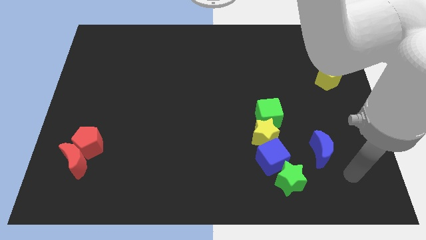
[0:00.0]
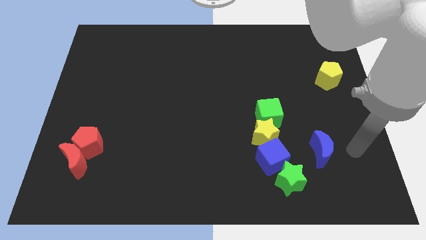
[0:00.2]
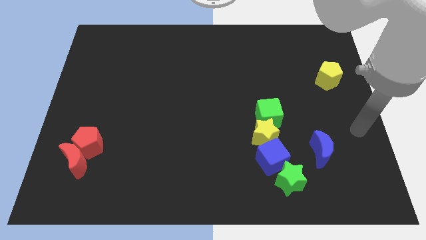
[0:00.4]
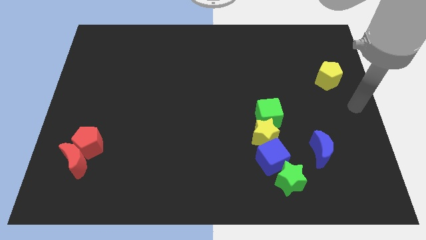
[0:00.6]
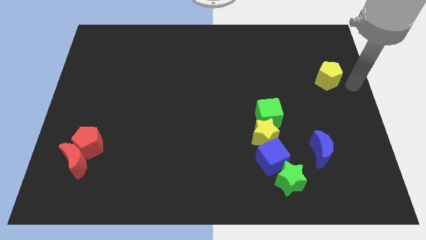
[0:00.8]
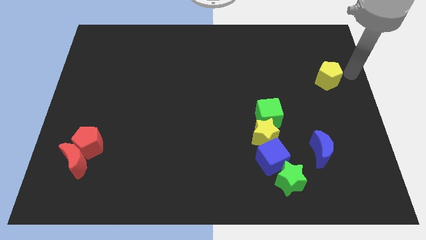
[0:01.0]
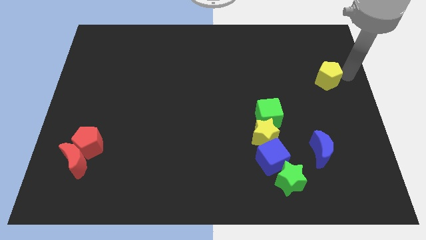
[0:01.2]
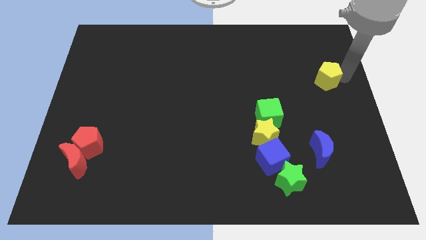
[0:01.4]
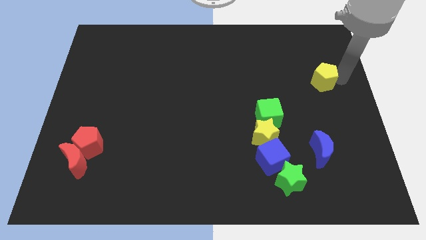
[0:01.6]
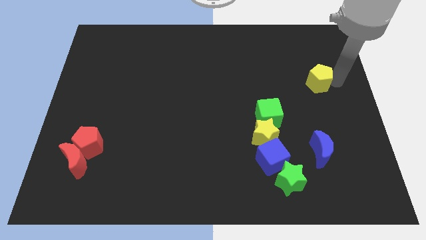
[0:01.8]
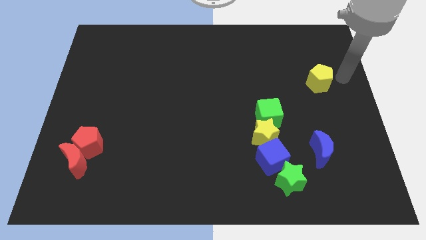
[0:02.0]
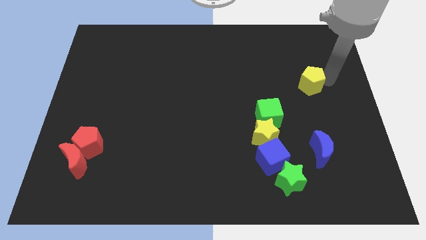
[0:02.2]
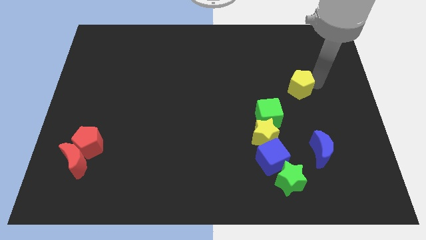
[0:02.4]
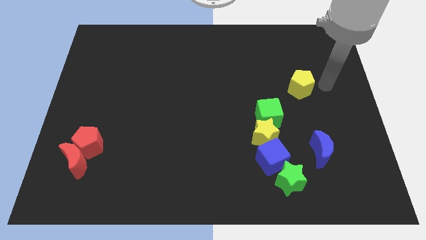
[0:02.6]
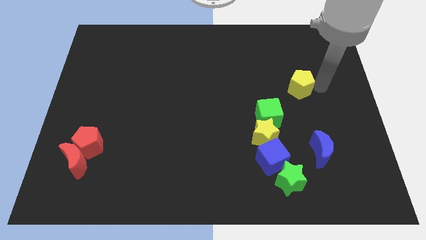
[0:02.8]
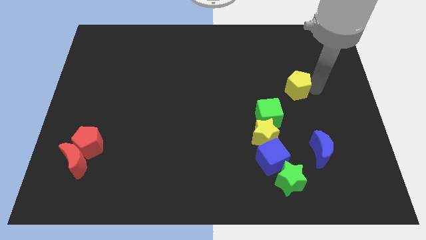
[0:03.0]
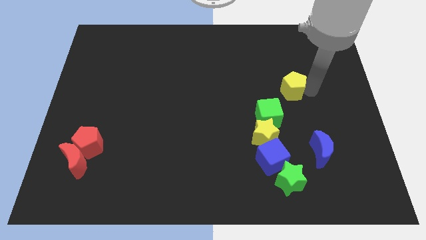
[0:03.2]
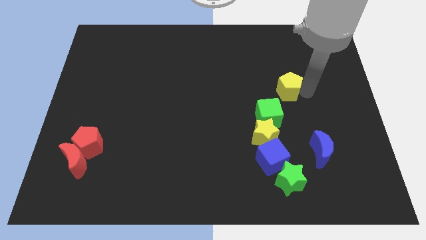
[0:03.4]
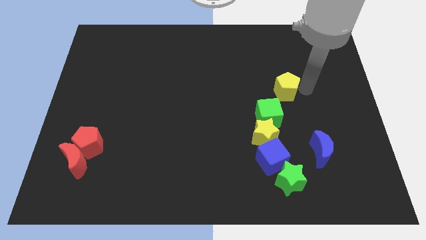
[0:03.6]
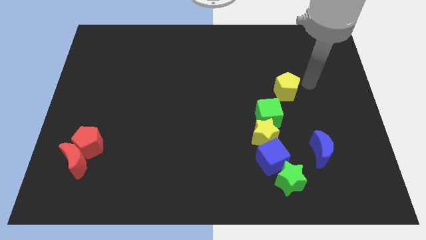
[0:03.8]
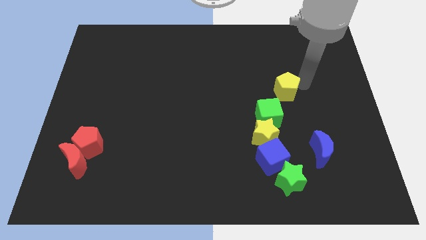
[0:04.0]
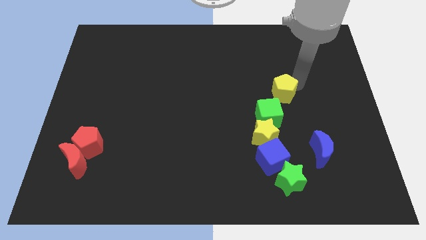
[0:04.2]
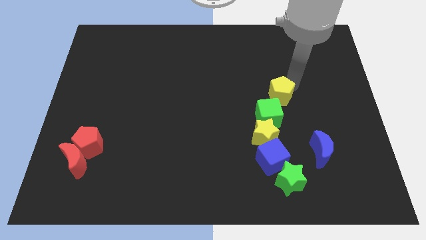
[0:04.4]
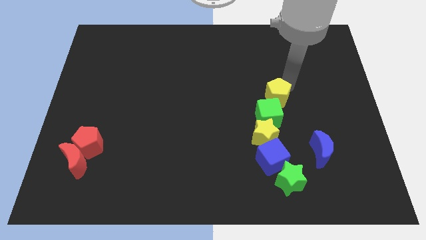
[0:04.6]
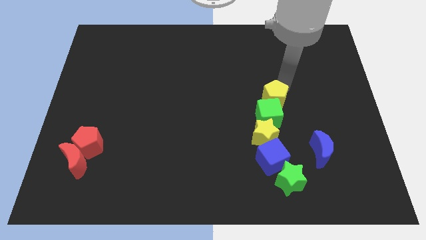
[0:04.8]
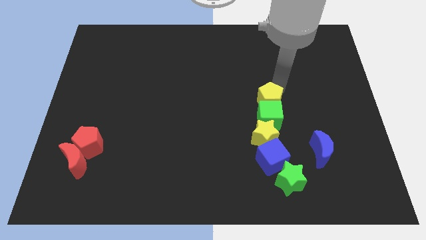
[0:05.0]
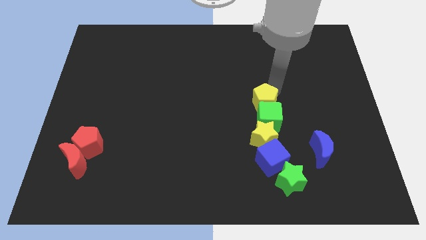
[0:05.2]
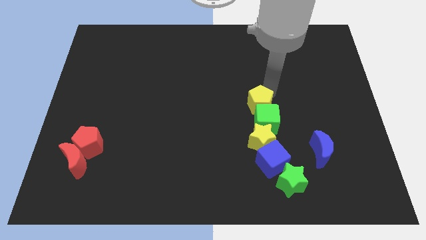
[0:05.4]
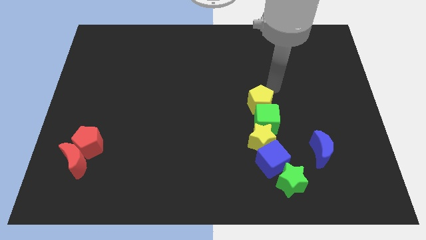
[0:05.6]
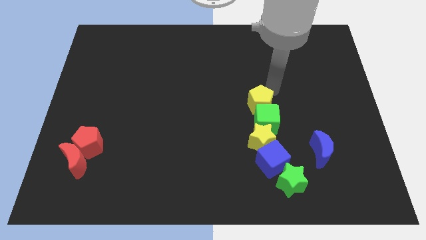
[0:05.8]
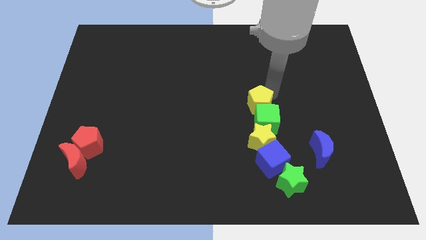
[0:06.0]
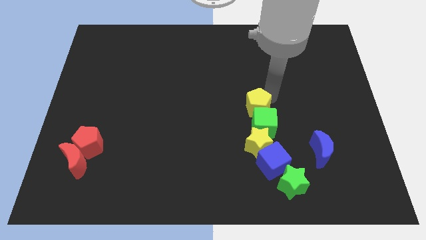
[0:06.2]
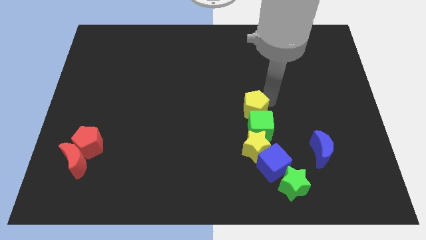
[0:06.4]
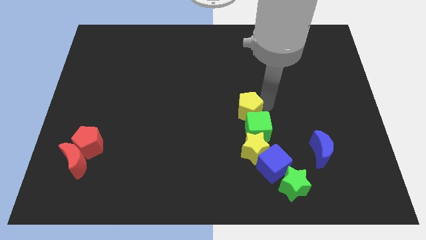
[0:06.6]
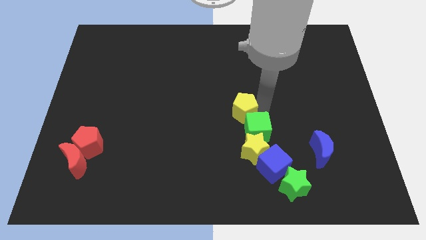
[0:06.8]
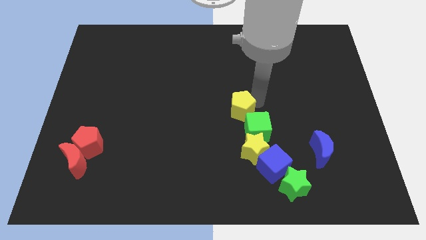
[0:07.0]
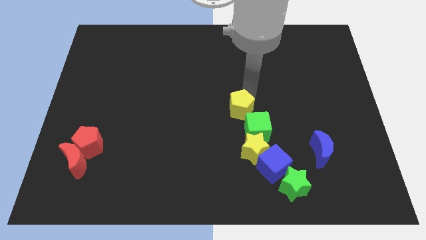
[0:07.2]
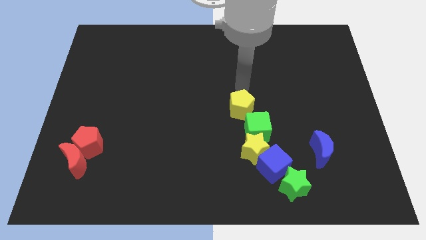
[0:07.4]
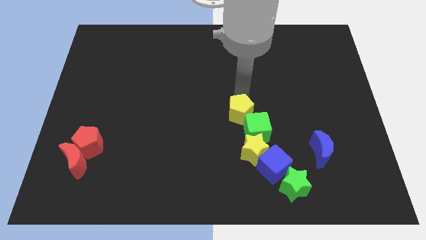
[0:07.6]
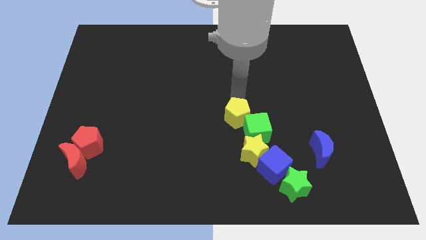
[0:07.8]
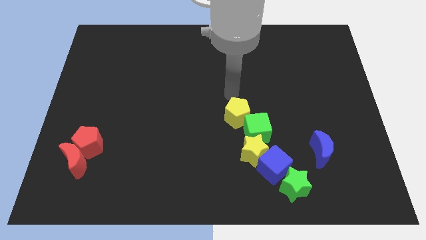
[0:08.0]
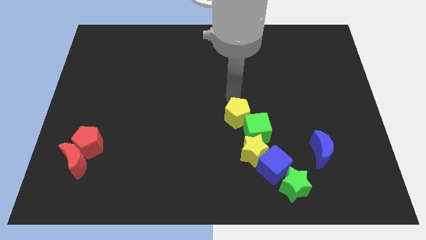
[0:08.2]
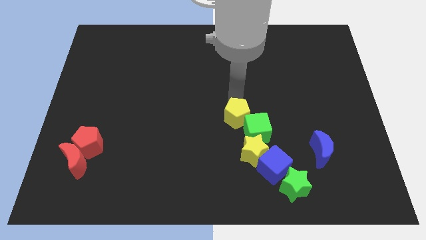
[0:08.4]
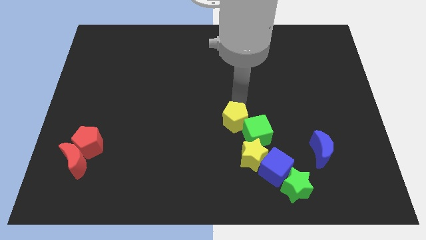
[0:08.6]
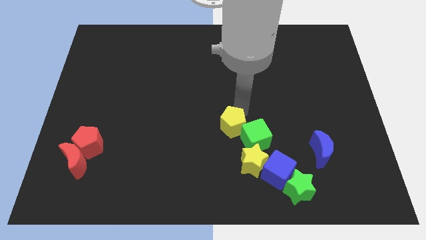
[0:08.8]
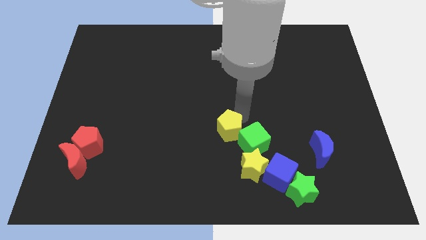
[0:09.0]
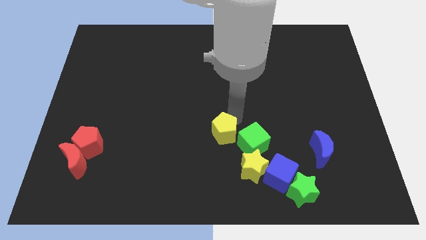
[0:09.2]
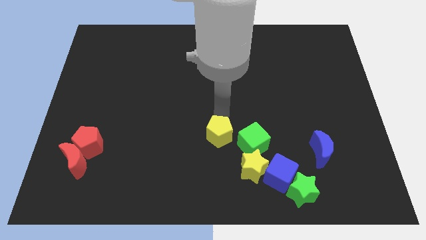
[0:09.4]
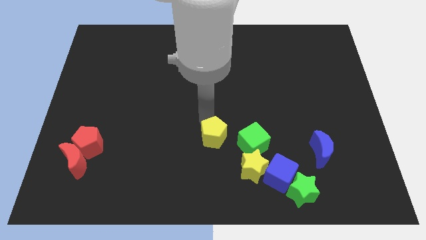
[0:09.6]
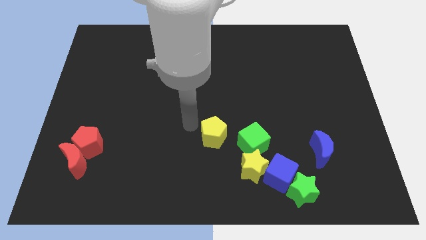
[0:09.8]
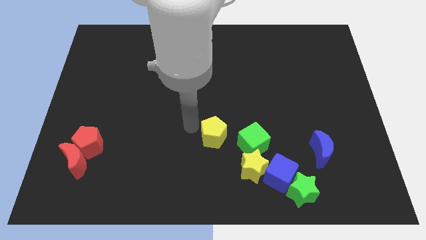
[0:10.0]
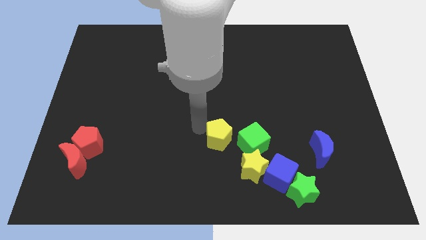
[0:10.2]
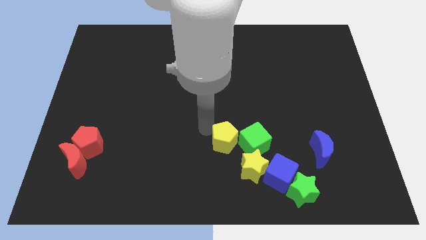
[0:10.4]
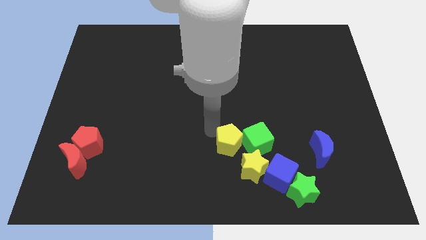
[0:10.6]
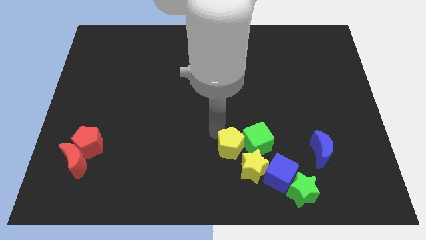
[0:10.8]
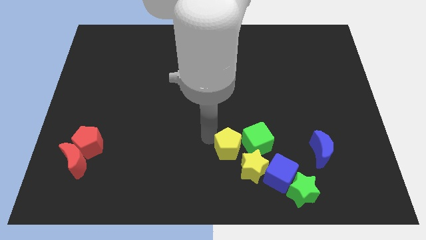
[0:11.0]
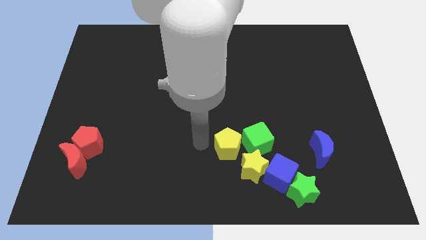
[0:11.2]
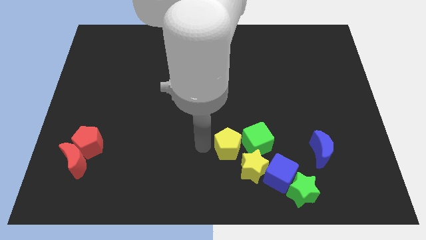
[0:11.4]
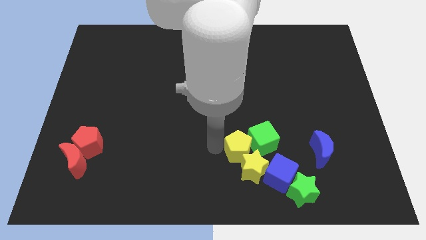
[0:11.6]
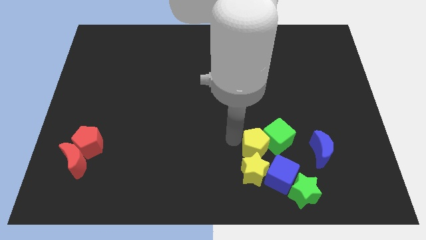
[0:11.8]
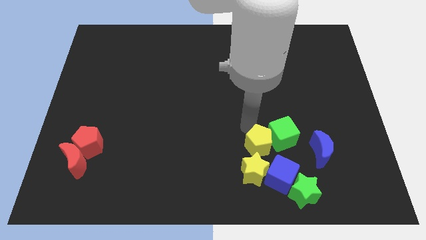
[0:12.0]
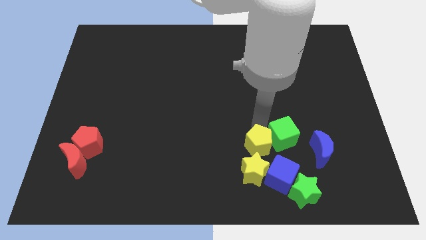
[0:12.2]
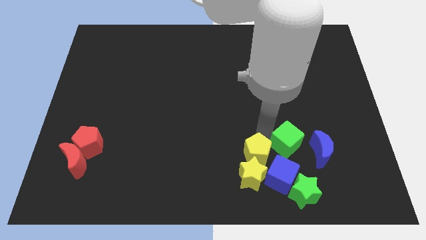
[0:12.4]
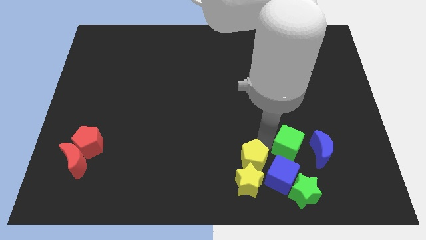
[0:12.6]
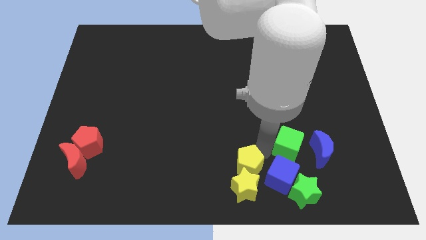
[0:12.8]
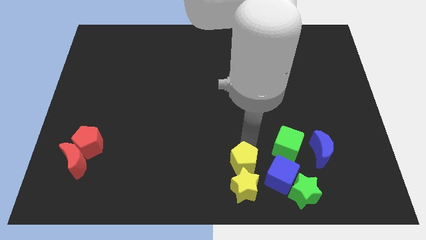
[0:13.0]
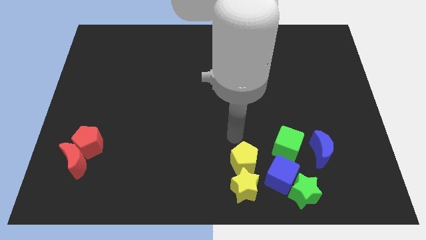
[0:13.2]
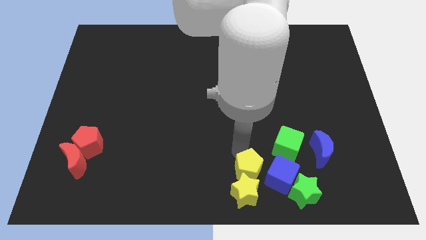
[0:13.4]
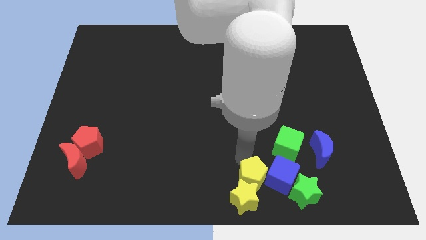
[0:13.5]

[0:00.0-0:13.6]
slide the yellow pentagon diagonally down and to the left of the blue cube

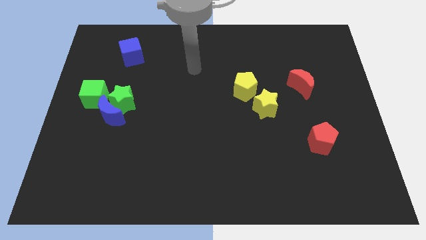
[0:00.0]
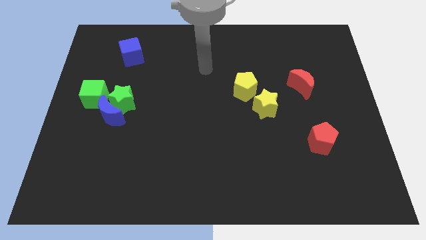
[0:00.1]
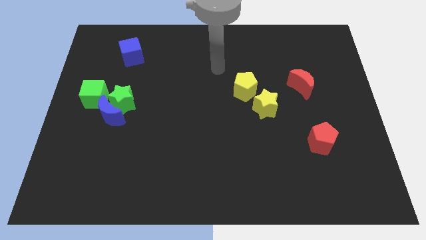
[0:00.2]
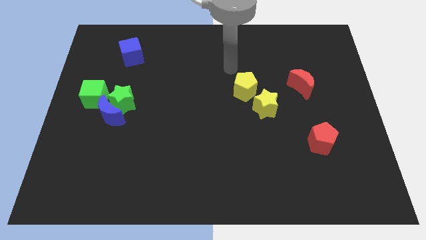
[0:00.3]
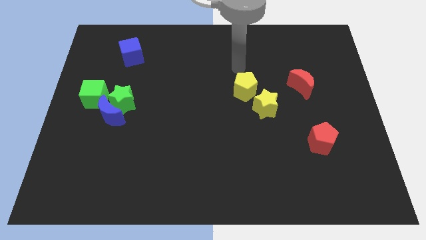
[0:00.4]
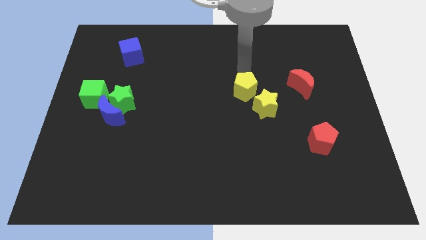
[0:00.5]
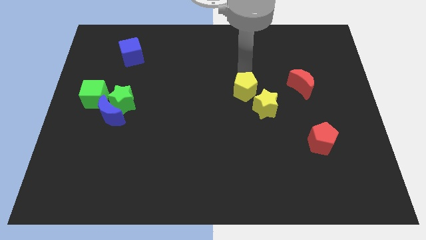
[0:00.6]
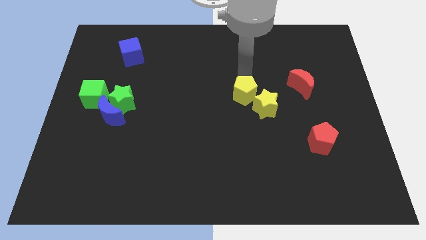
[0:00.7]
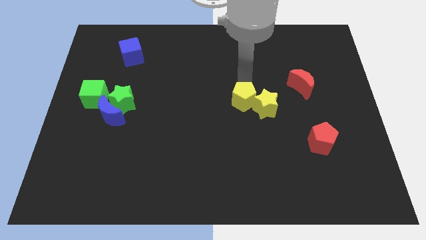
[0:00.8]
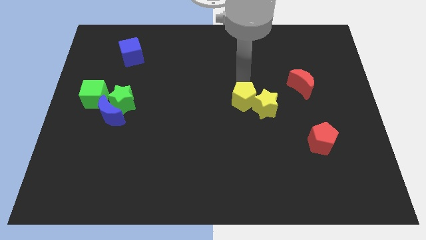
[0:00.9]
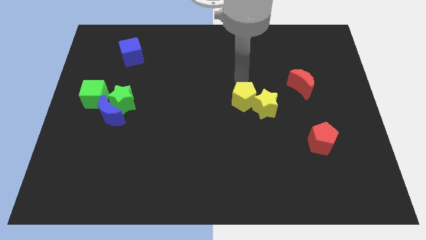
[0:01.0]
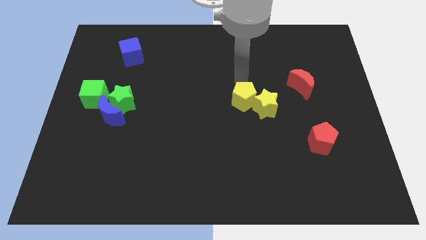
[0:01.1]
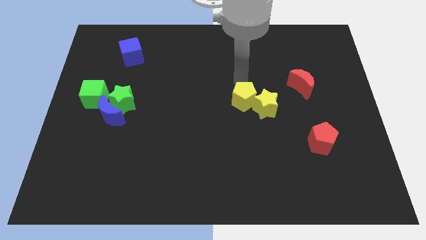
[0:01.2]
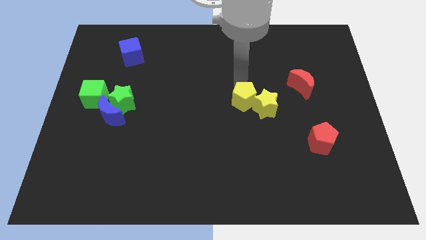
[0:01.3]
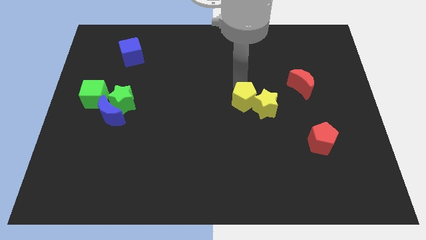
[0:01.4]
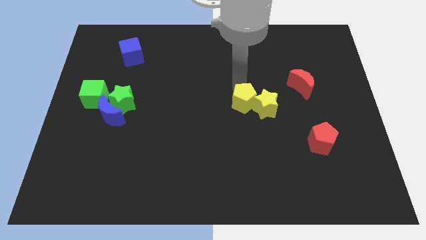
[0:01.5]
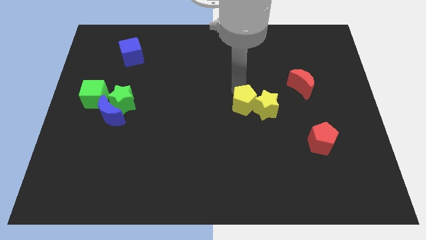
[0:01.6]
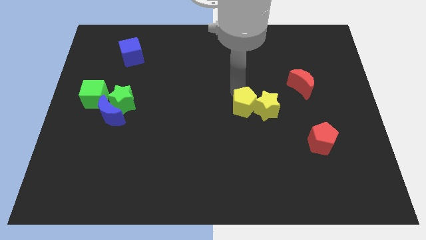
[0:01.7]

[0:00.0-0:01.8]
slide the yellow pentagon to the bottom left side of the yellow star
